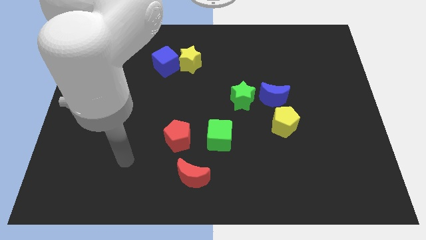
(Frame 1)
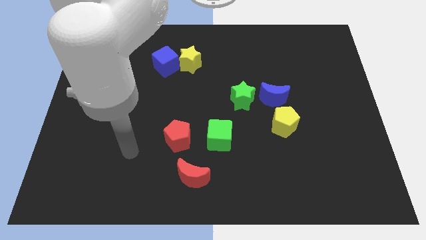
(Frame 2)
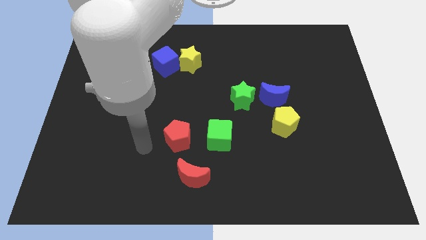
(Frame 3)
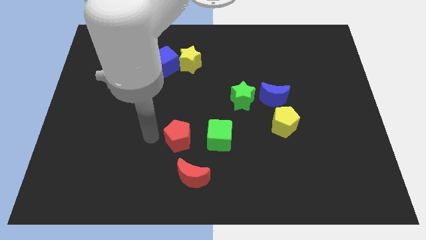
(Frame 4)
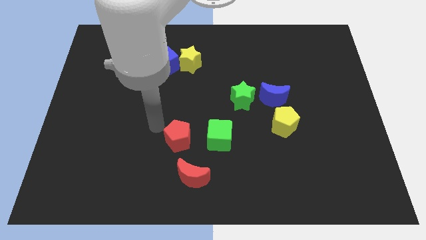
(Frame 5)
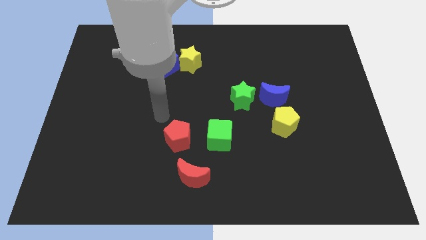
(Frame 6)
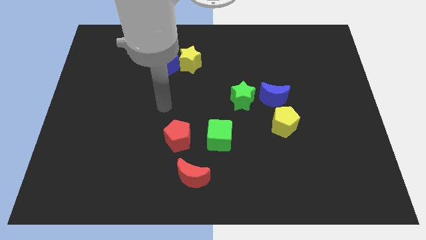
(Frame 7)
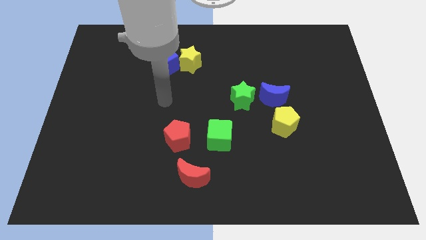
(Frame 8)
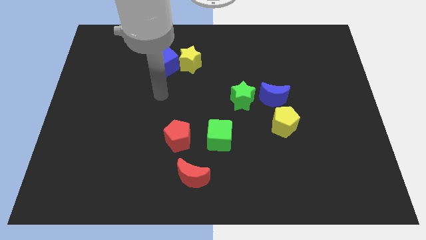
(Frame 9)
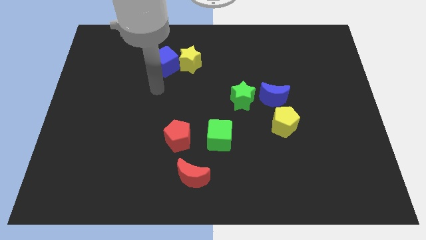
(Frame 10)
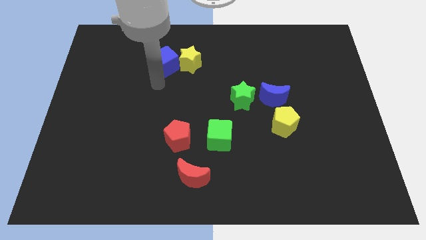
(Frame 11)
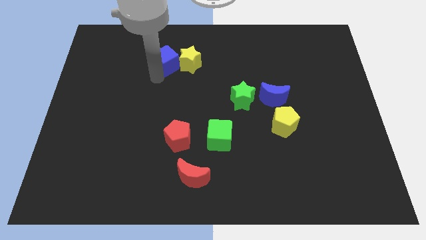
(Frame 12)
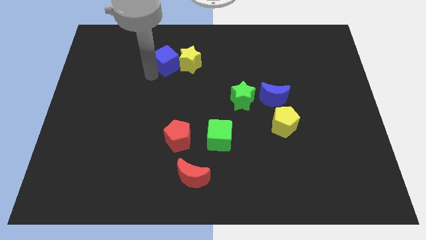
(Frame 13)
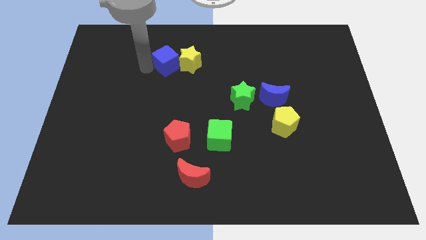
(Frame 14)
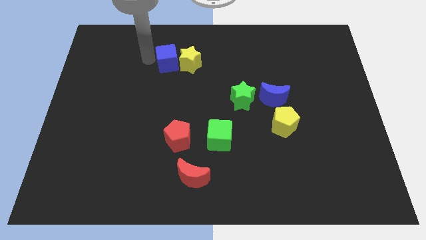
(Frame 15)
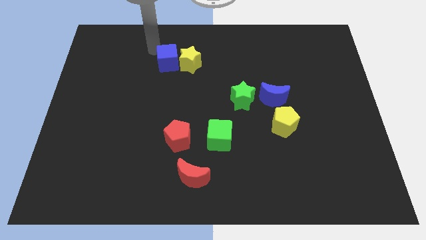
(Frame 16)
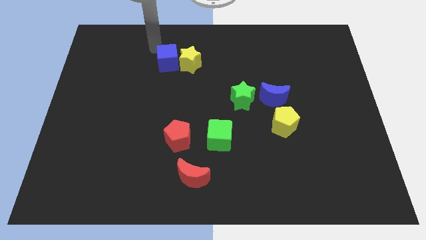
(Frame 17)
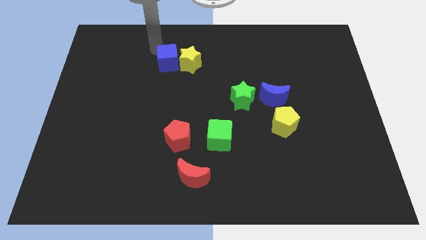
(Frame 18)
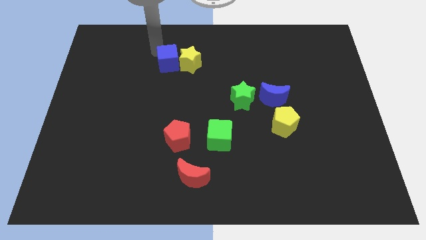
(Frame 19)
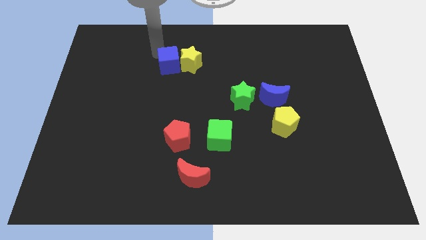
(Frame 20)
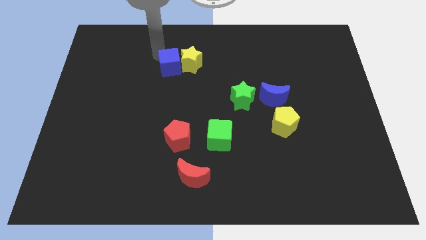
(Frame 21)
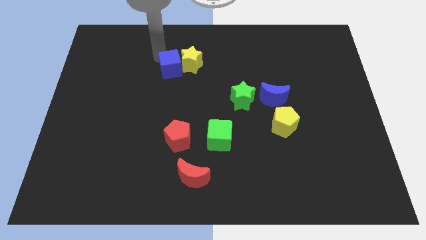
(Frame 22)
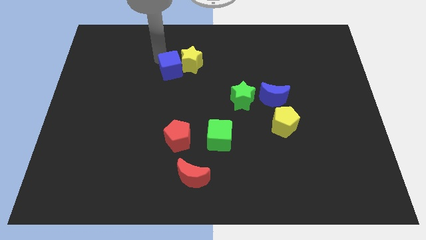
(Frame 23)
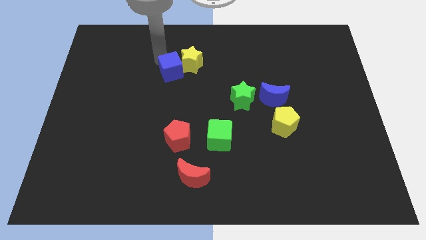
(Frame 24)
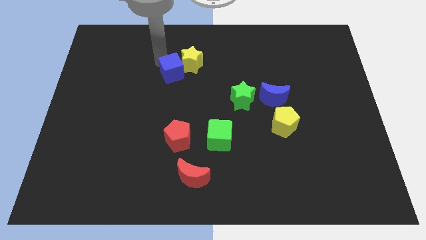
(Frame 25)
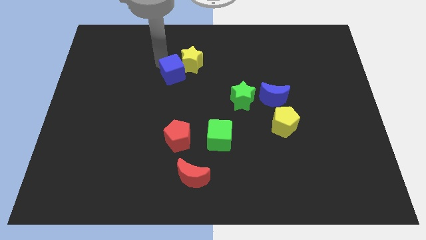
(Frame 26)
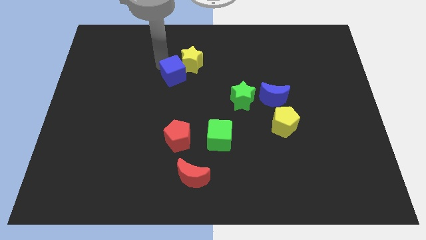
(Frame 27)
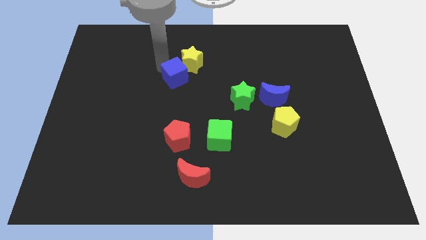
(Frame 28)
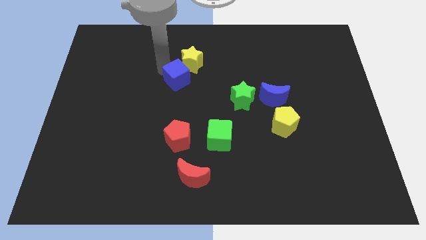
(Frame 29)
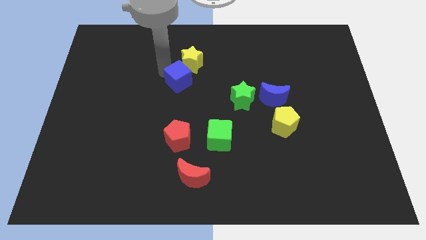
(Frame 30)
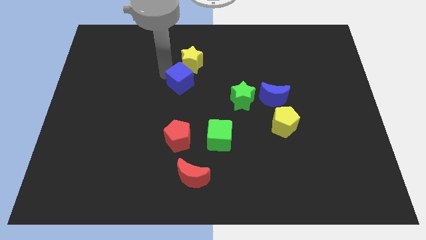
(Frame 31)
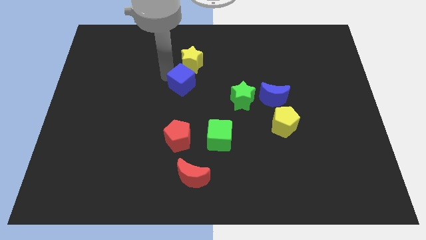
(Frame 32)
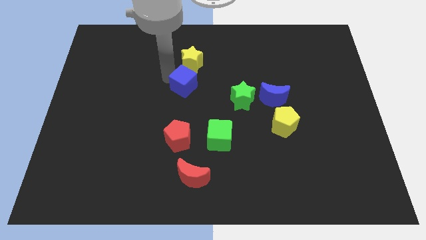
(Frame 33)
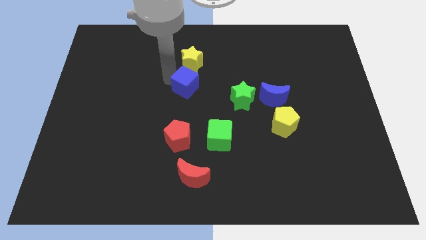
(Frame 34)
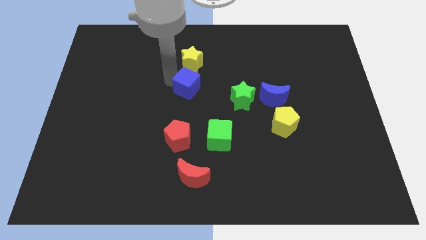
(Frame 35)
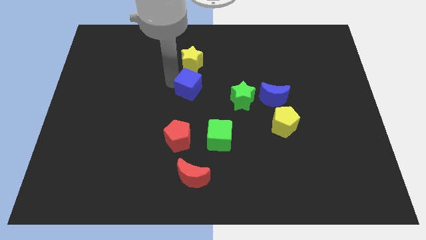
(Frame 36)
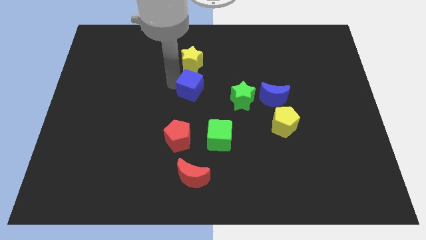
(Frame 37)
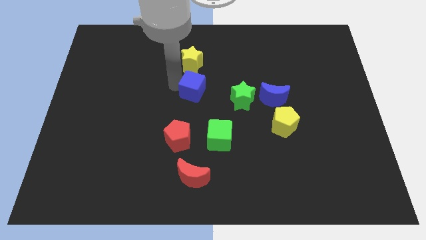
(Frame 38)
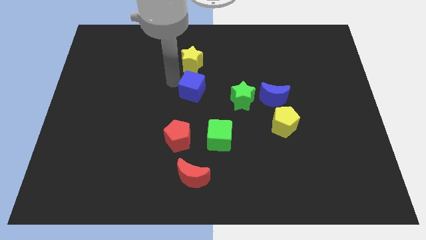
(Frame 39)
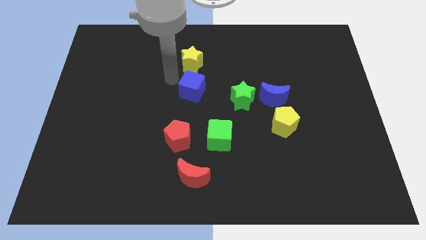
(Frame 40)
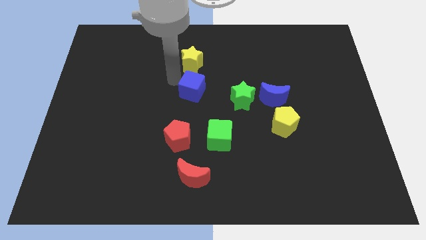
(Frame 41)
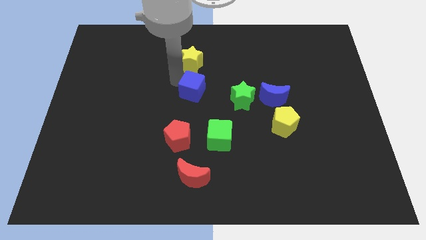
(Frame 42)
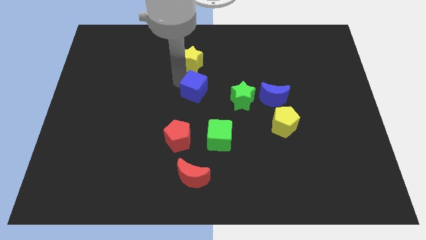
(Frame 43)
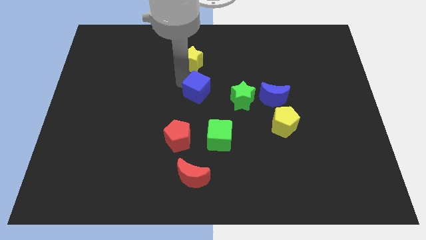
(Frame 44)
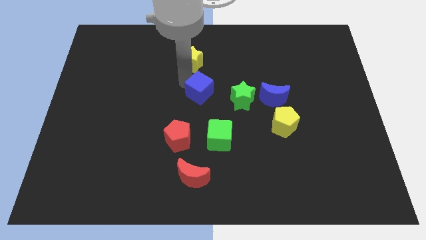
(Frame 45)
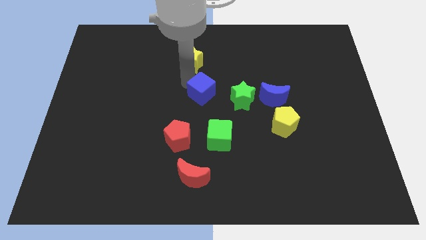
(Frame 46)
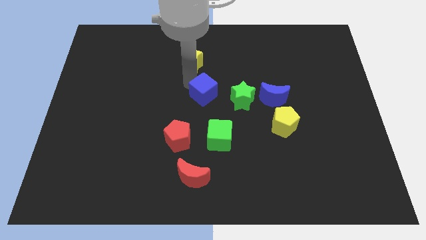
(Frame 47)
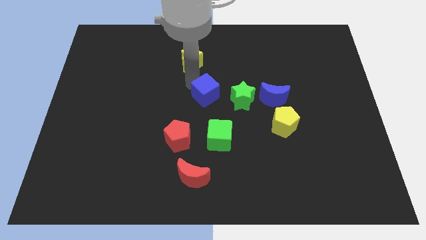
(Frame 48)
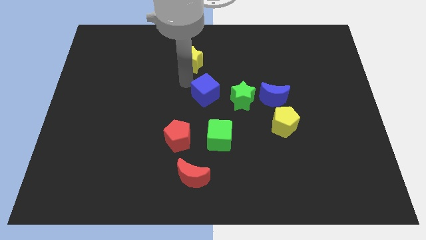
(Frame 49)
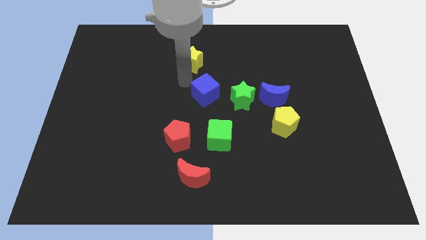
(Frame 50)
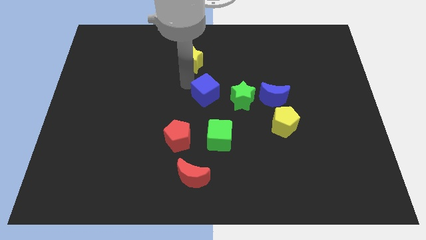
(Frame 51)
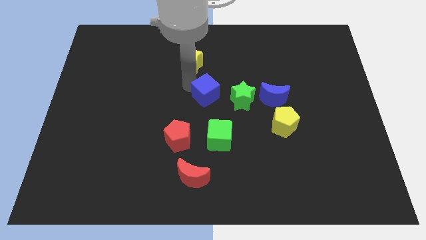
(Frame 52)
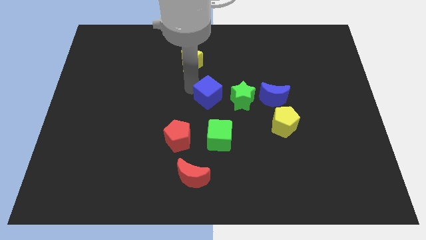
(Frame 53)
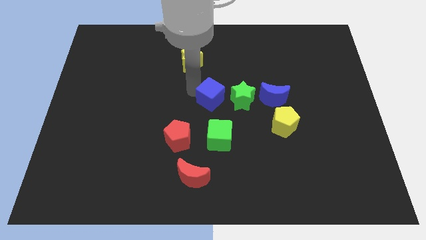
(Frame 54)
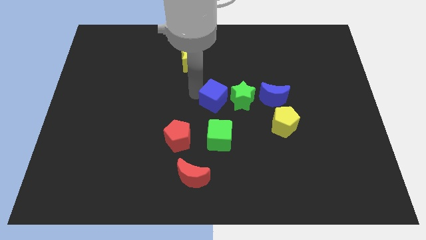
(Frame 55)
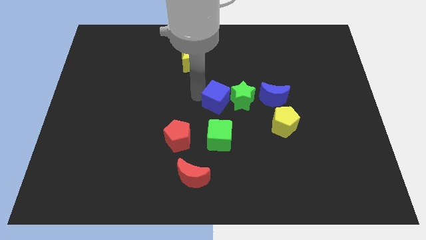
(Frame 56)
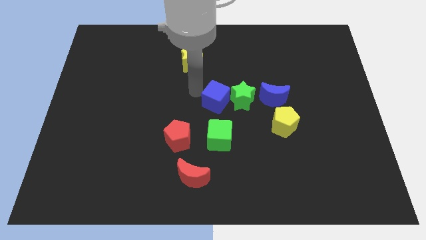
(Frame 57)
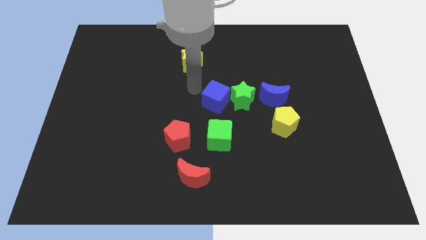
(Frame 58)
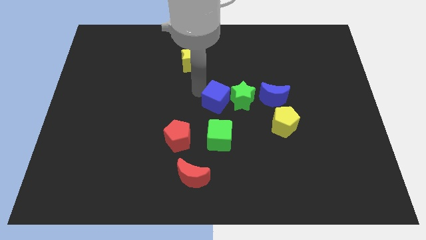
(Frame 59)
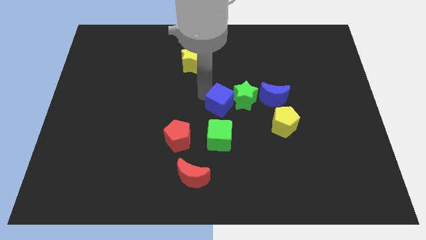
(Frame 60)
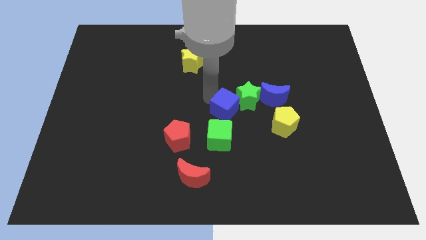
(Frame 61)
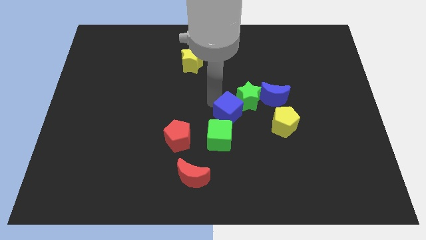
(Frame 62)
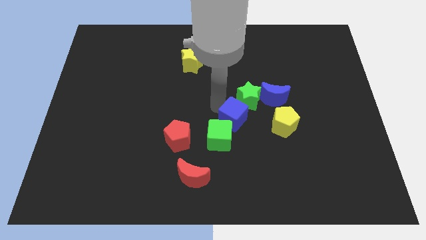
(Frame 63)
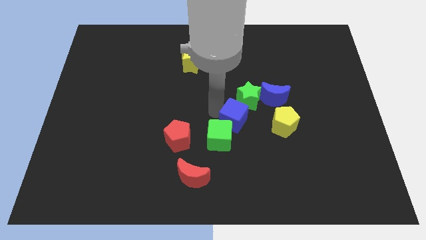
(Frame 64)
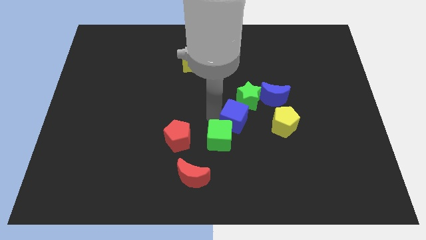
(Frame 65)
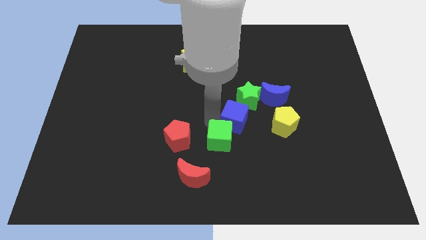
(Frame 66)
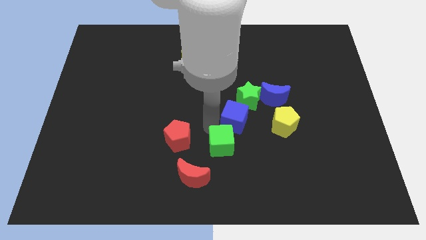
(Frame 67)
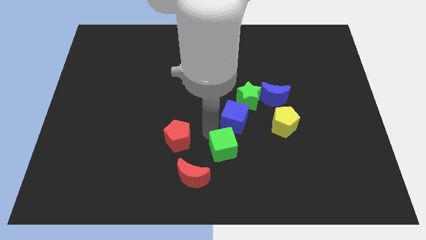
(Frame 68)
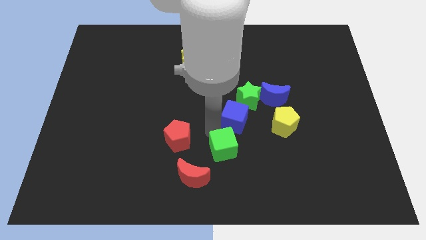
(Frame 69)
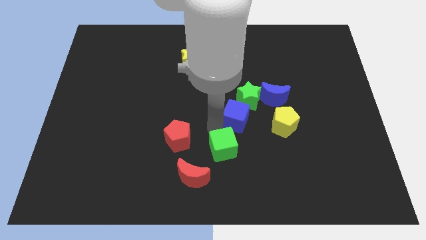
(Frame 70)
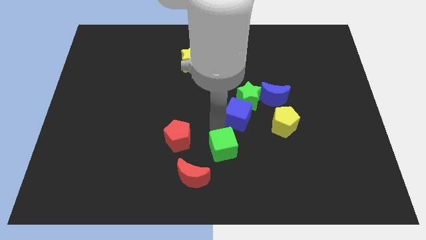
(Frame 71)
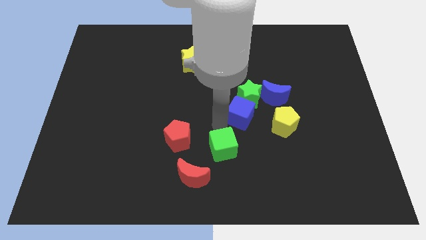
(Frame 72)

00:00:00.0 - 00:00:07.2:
push the blue cube diagonally up and to the left of the yellow pentagon

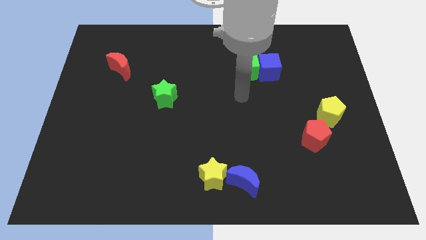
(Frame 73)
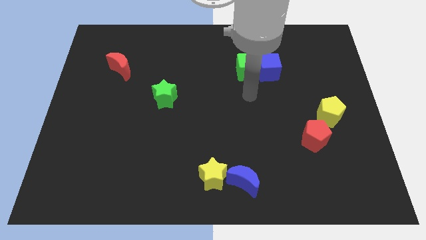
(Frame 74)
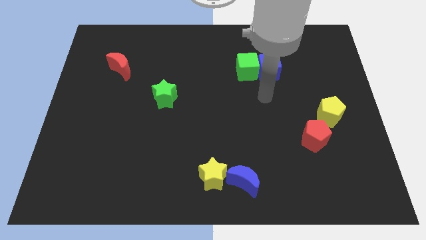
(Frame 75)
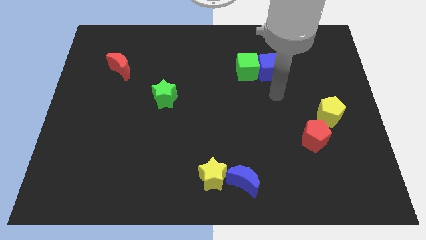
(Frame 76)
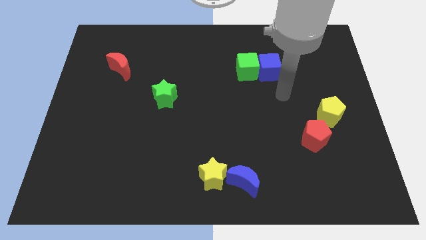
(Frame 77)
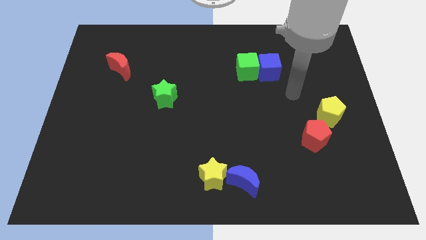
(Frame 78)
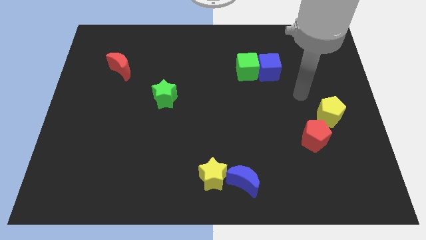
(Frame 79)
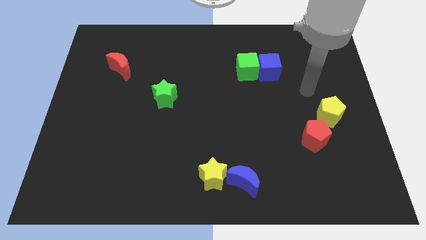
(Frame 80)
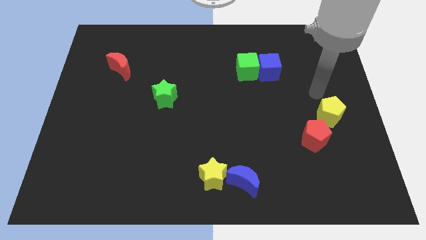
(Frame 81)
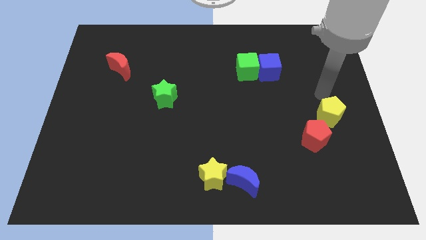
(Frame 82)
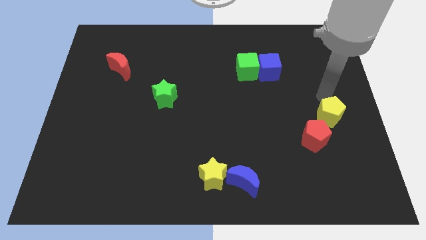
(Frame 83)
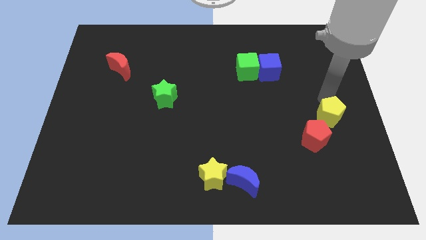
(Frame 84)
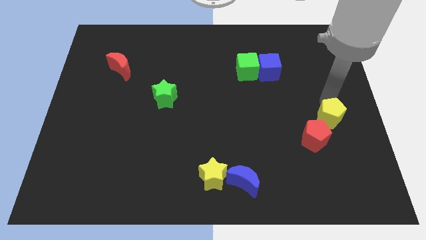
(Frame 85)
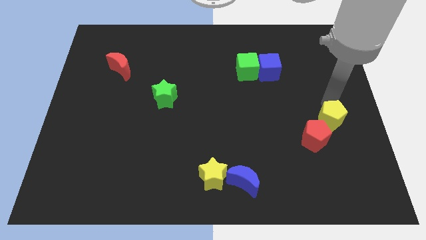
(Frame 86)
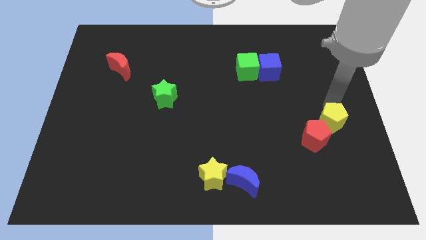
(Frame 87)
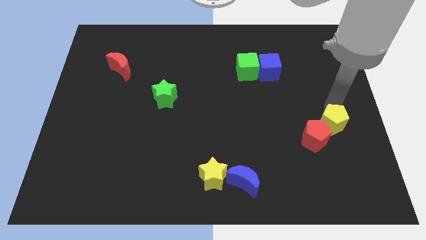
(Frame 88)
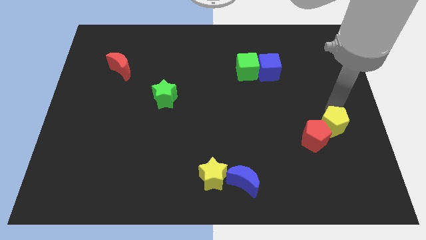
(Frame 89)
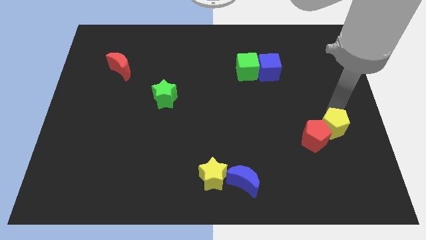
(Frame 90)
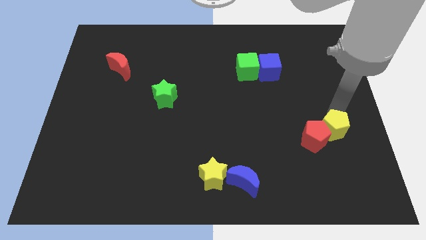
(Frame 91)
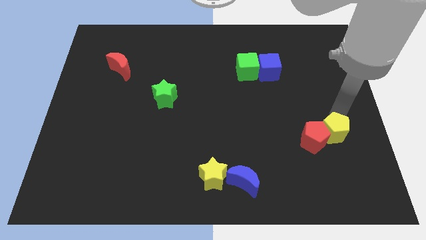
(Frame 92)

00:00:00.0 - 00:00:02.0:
slide the yellow pentagon diagonally down and to the right of the red pentagon
